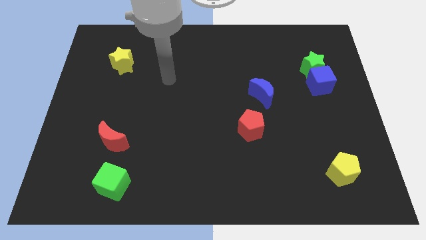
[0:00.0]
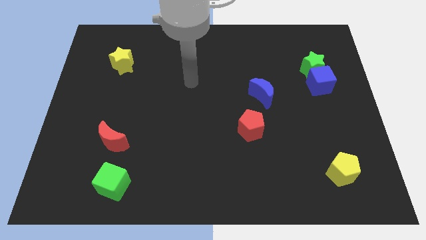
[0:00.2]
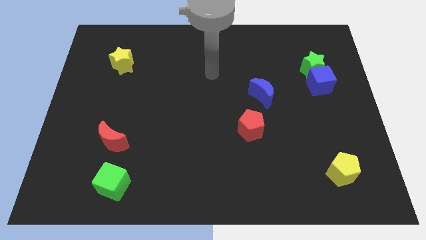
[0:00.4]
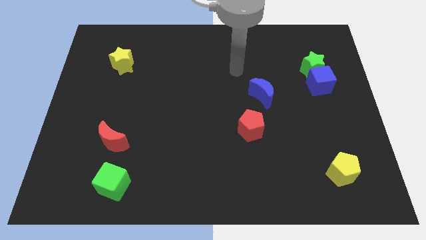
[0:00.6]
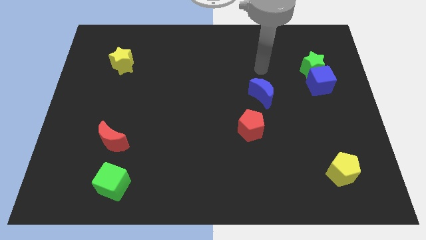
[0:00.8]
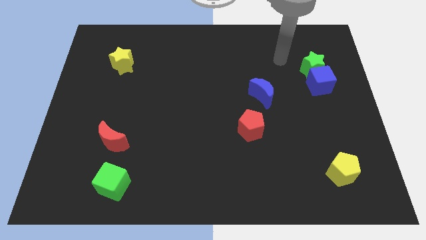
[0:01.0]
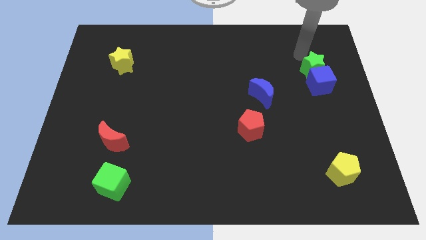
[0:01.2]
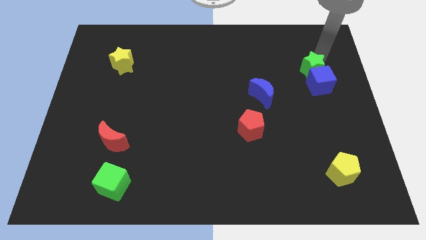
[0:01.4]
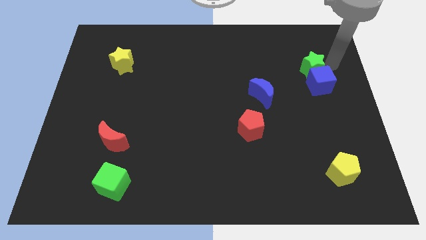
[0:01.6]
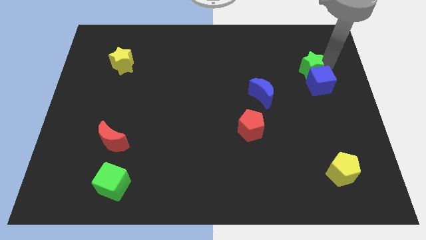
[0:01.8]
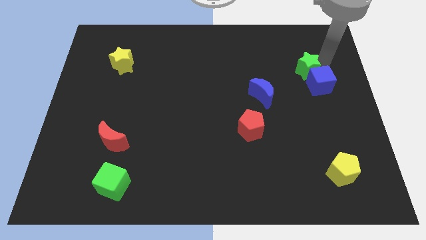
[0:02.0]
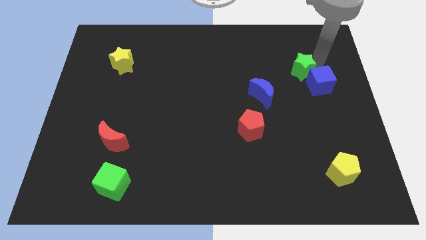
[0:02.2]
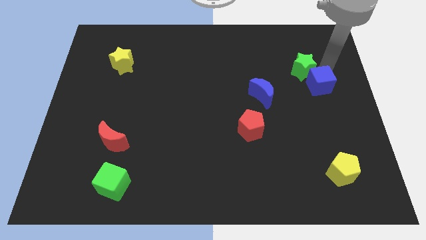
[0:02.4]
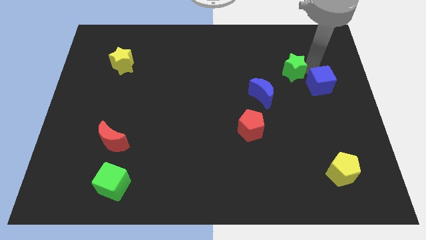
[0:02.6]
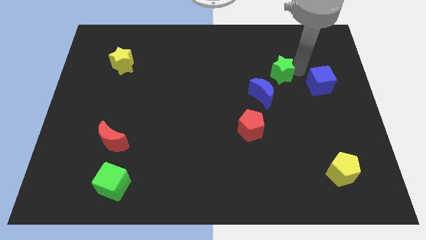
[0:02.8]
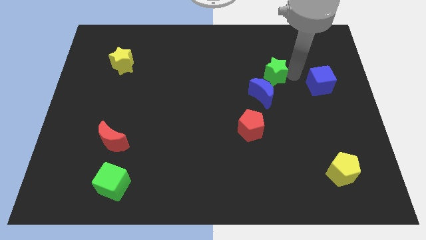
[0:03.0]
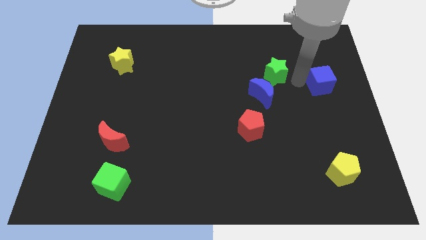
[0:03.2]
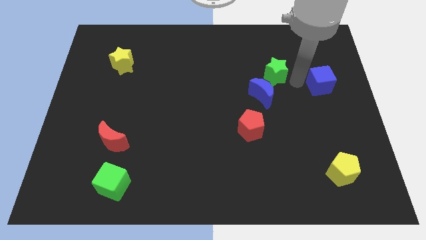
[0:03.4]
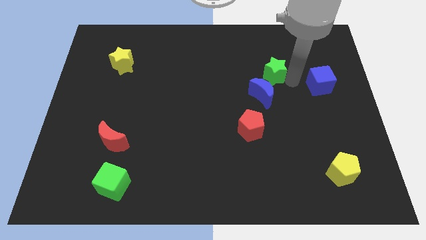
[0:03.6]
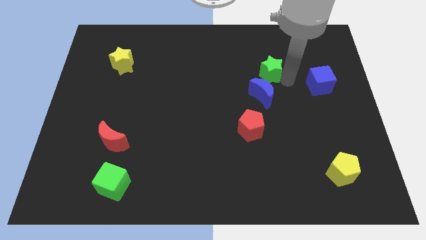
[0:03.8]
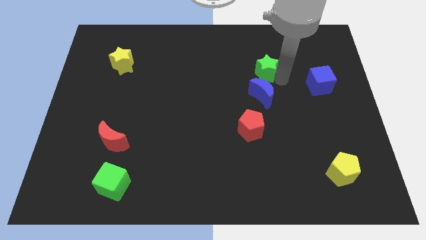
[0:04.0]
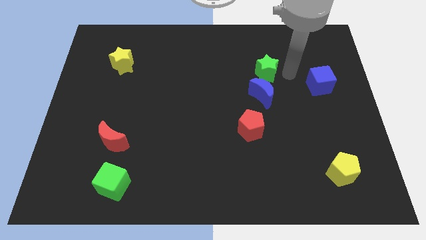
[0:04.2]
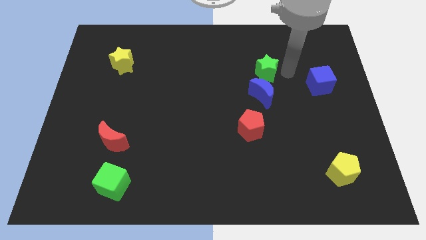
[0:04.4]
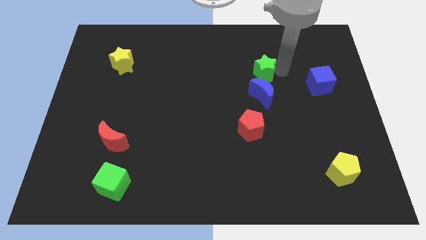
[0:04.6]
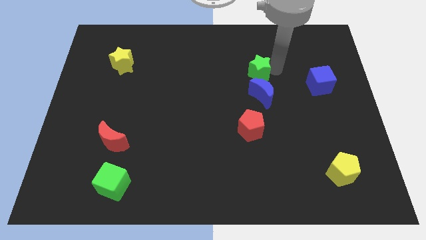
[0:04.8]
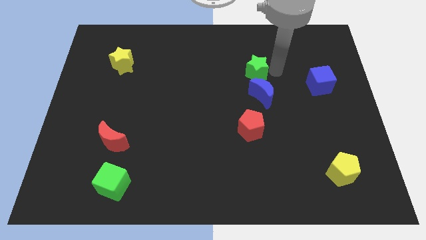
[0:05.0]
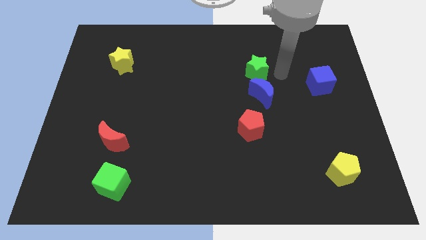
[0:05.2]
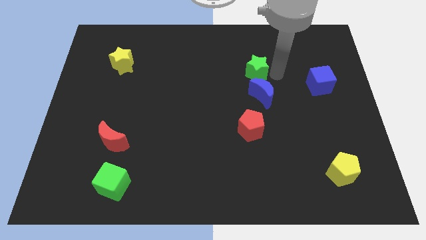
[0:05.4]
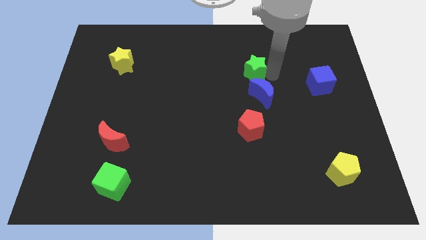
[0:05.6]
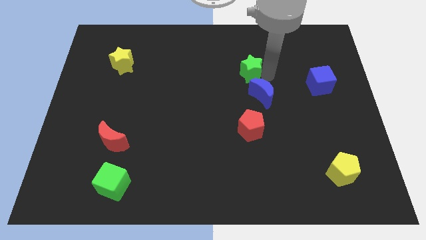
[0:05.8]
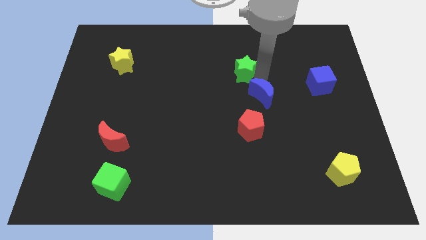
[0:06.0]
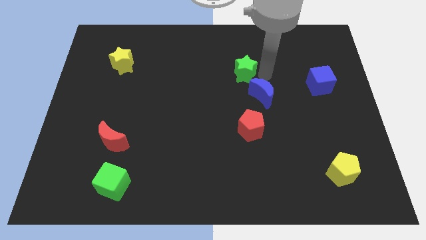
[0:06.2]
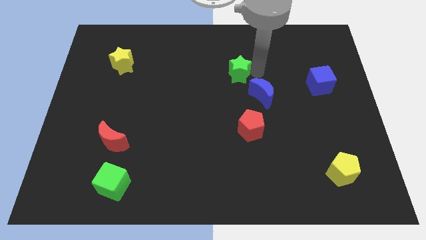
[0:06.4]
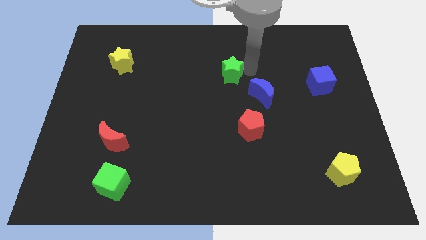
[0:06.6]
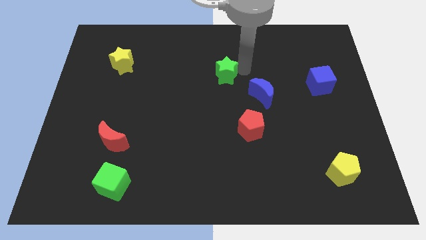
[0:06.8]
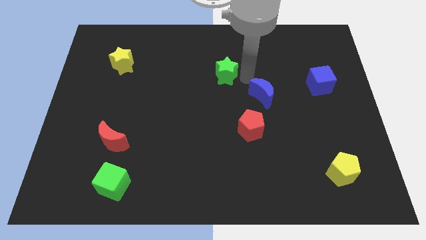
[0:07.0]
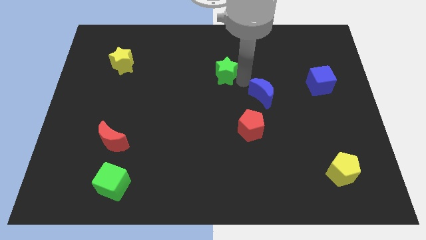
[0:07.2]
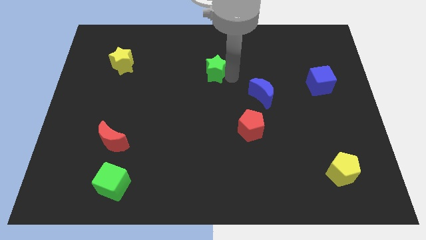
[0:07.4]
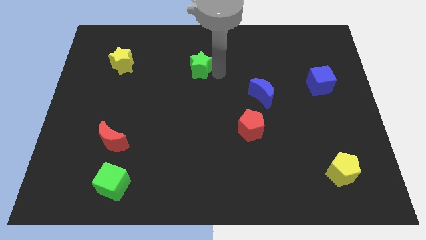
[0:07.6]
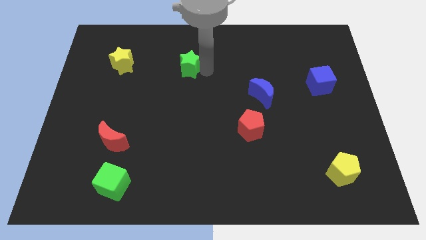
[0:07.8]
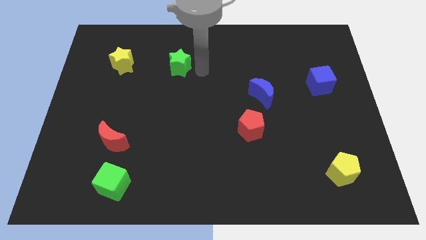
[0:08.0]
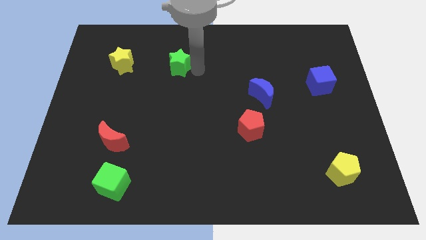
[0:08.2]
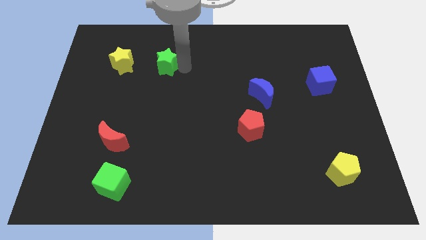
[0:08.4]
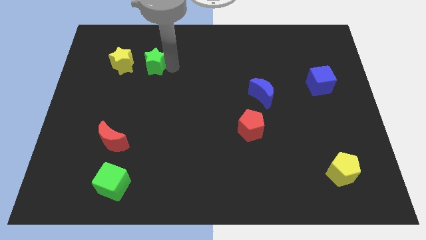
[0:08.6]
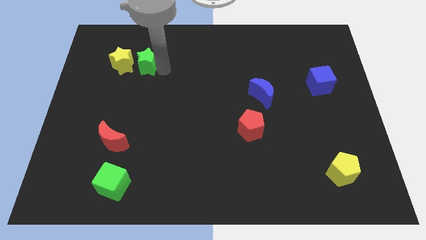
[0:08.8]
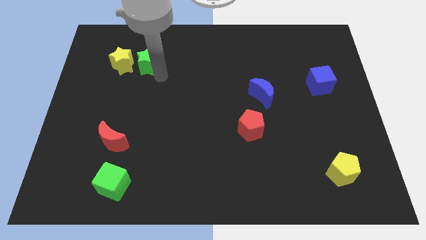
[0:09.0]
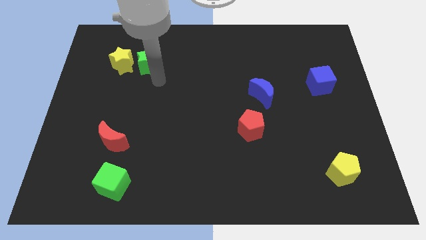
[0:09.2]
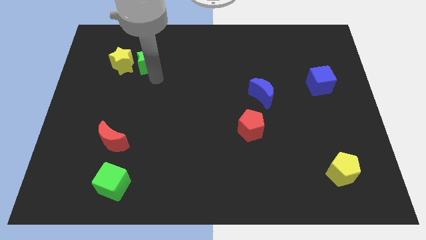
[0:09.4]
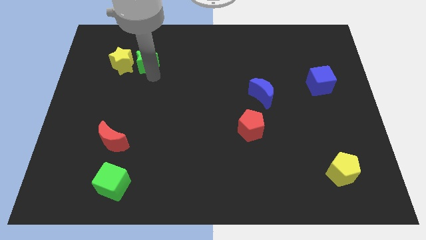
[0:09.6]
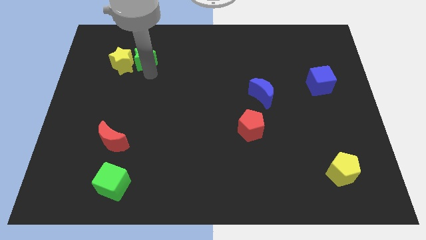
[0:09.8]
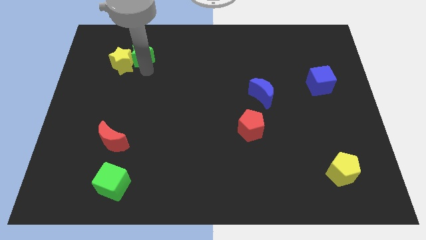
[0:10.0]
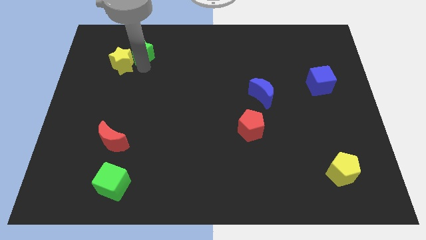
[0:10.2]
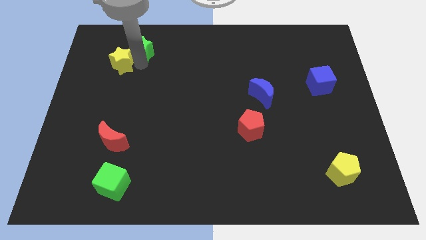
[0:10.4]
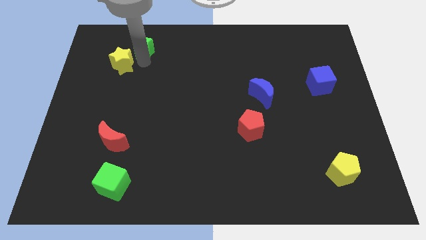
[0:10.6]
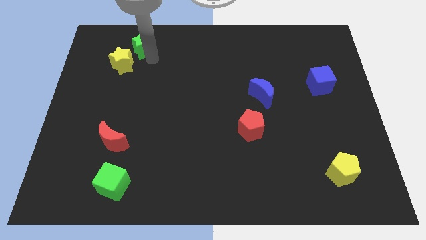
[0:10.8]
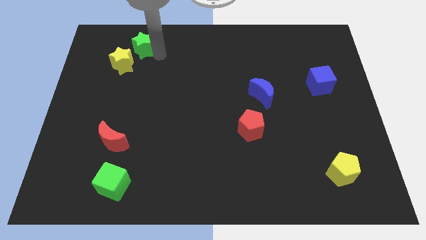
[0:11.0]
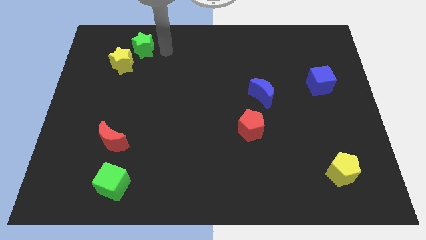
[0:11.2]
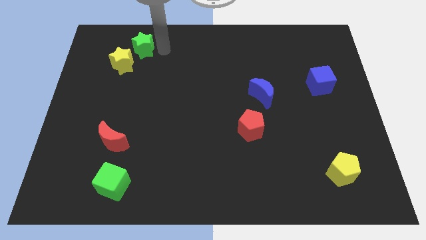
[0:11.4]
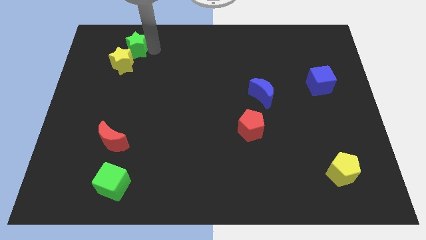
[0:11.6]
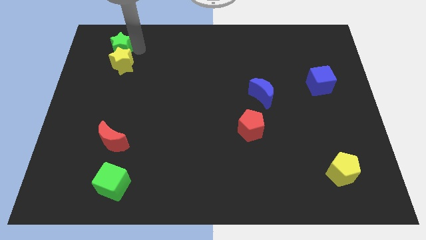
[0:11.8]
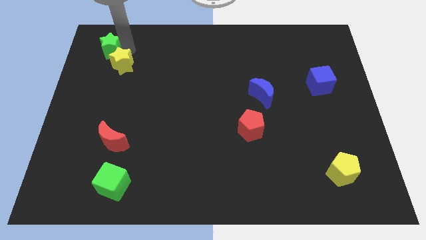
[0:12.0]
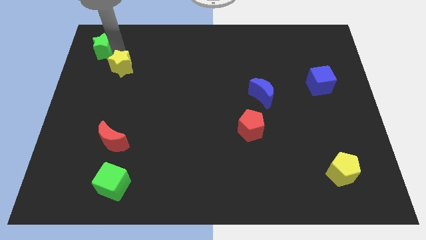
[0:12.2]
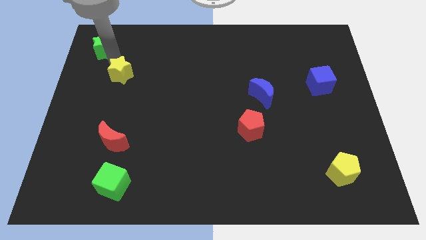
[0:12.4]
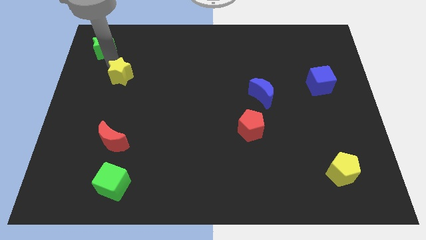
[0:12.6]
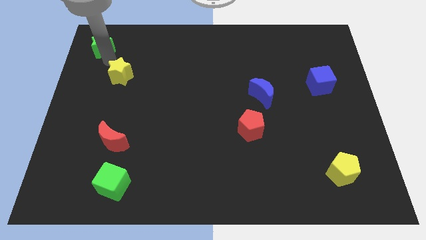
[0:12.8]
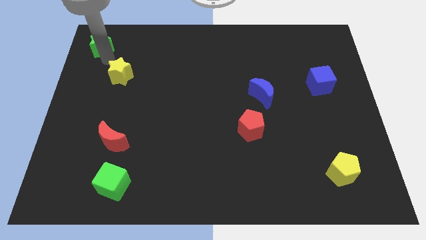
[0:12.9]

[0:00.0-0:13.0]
put the green star to the top left of the board
